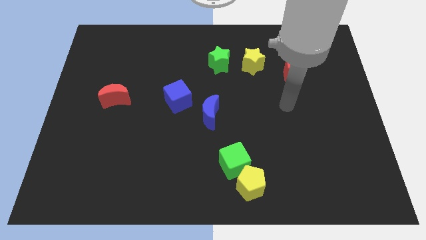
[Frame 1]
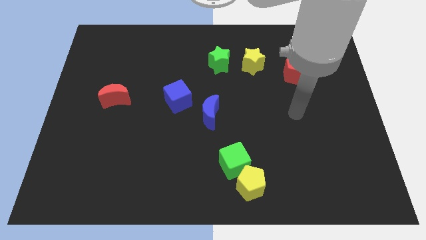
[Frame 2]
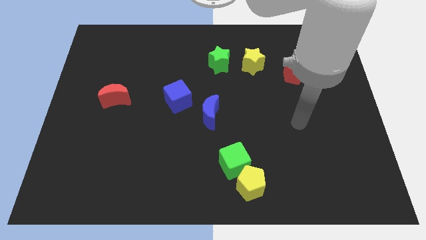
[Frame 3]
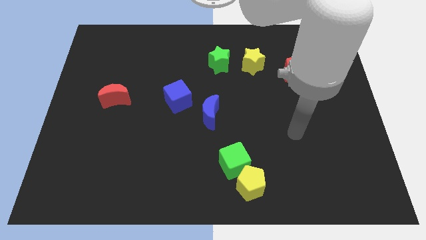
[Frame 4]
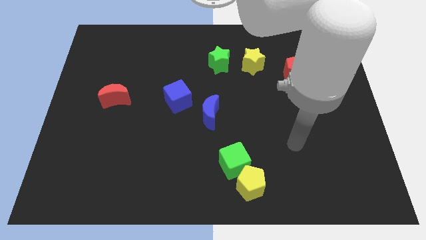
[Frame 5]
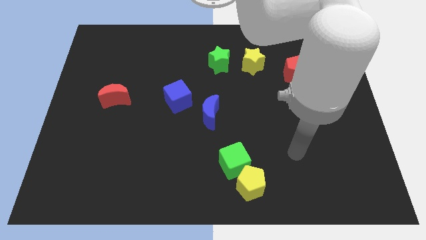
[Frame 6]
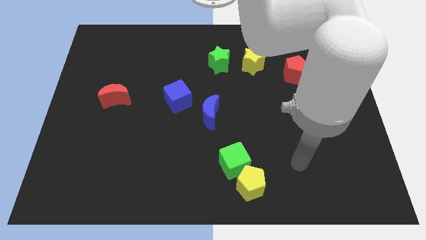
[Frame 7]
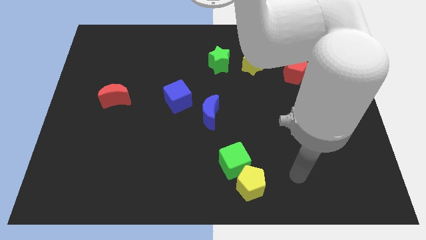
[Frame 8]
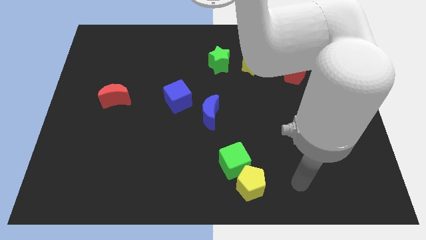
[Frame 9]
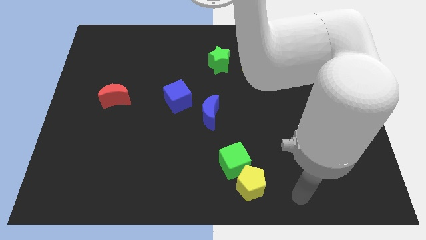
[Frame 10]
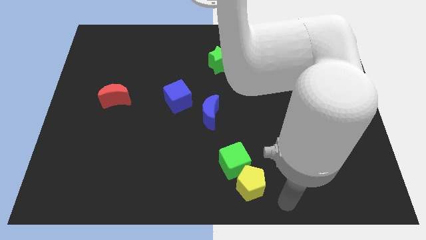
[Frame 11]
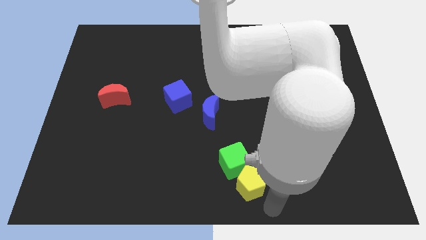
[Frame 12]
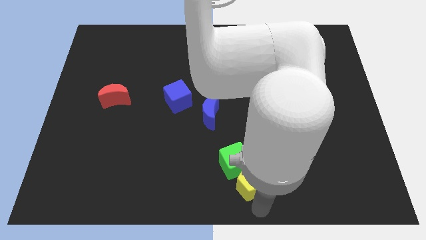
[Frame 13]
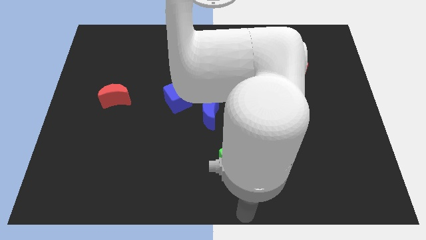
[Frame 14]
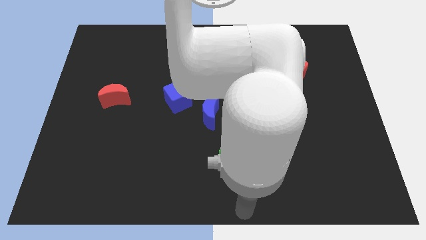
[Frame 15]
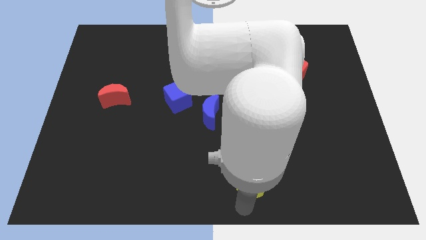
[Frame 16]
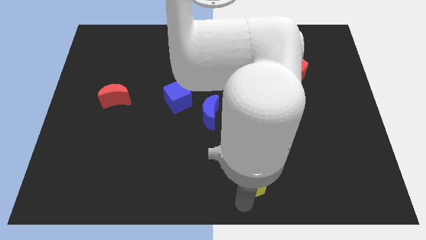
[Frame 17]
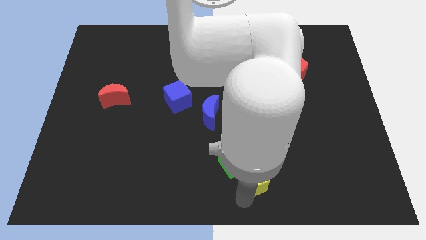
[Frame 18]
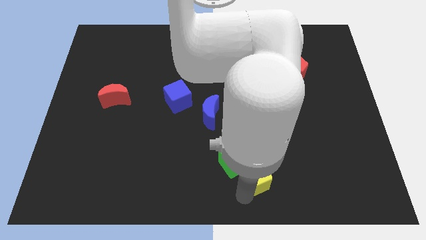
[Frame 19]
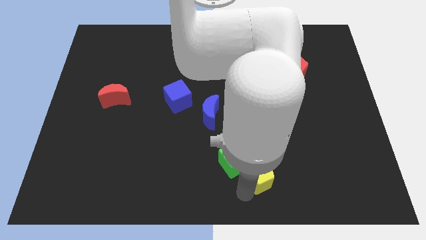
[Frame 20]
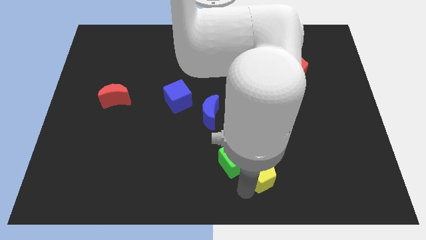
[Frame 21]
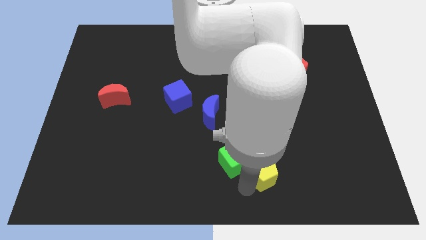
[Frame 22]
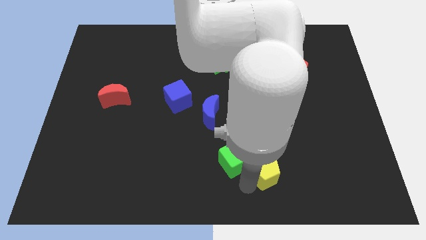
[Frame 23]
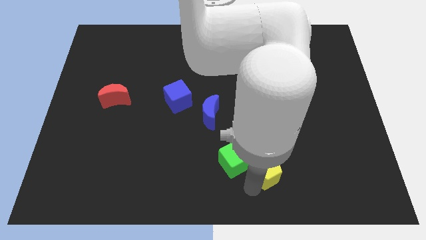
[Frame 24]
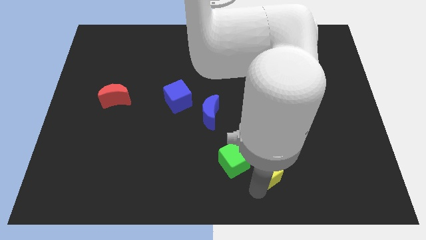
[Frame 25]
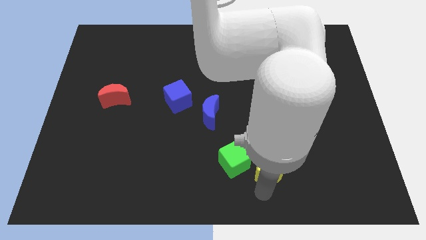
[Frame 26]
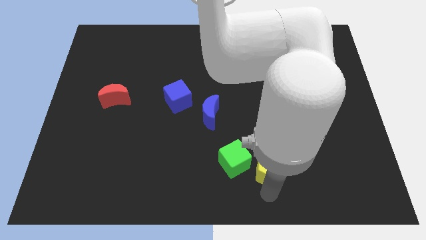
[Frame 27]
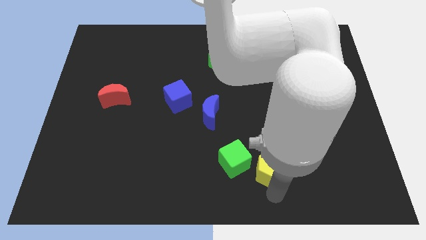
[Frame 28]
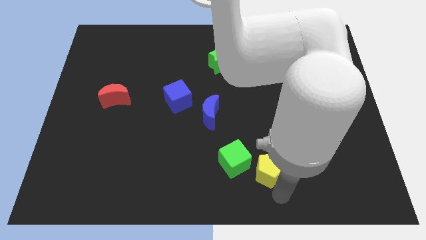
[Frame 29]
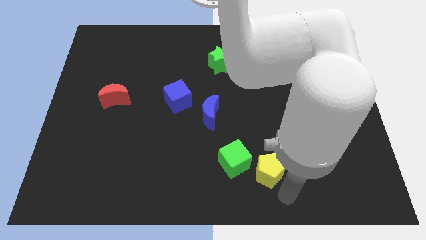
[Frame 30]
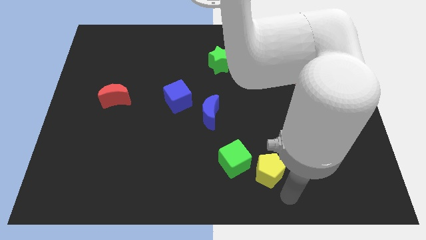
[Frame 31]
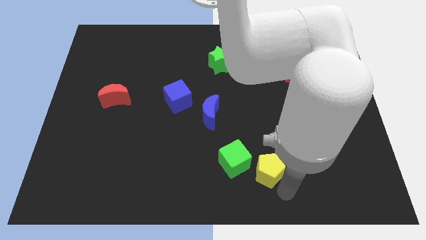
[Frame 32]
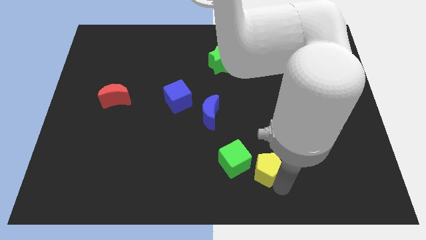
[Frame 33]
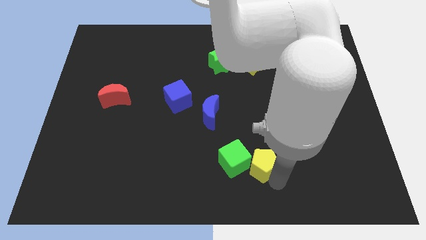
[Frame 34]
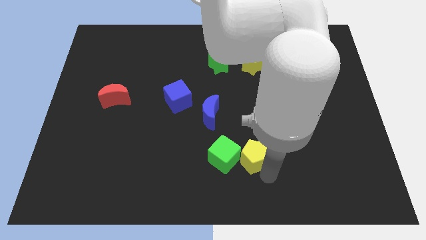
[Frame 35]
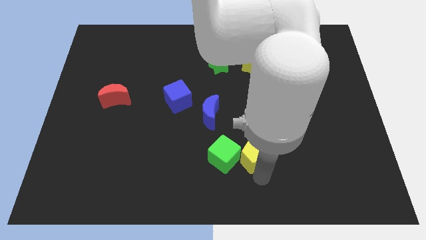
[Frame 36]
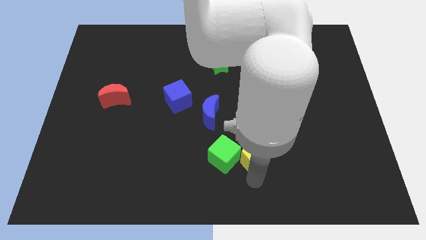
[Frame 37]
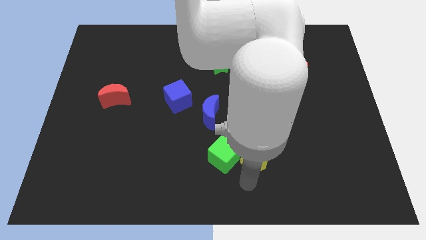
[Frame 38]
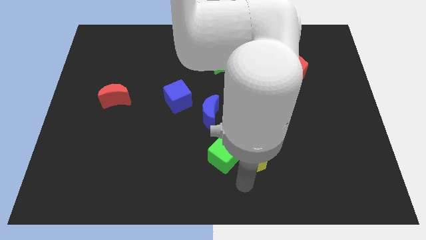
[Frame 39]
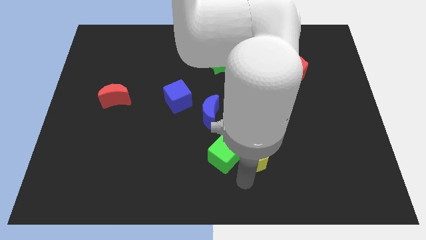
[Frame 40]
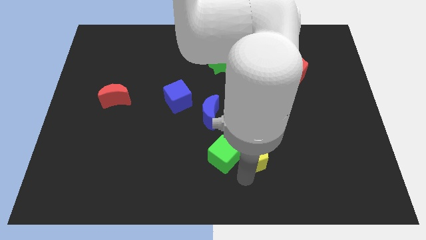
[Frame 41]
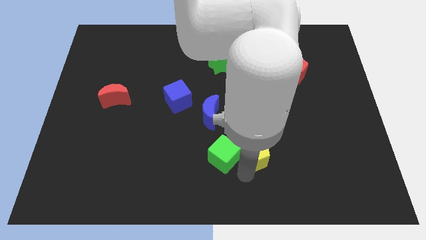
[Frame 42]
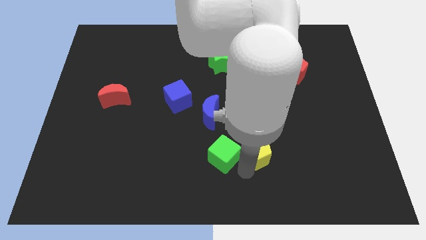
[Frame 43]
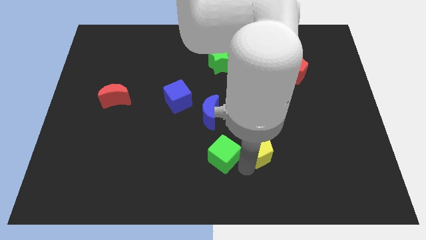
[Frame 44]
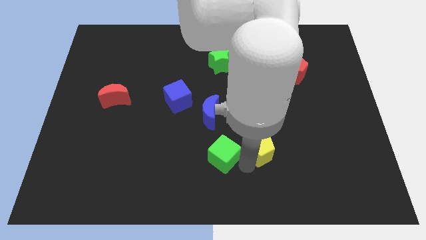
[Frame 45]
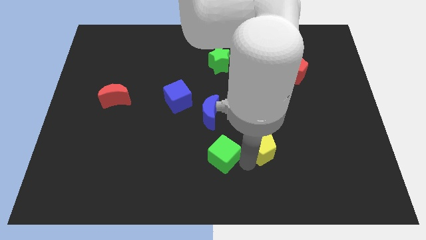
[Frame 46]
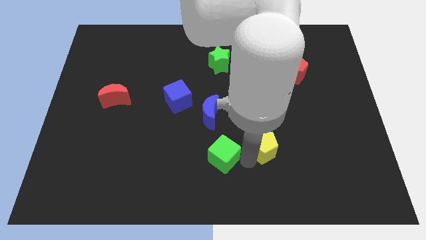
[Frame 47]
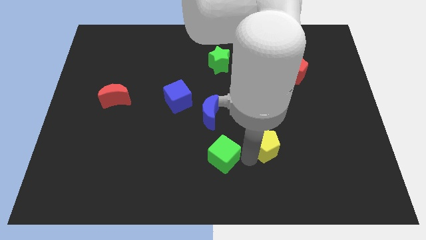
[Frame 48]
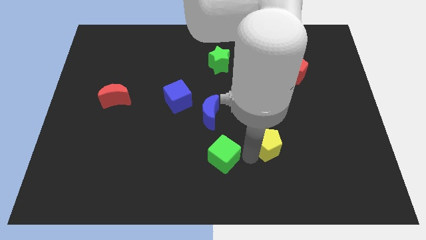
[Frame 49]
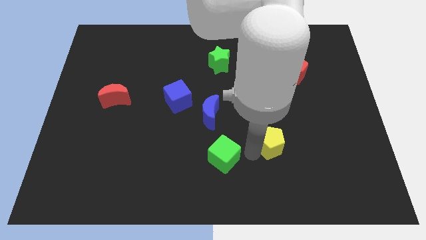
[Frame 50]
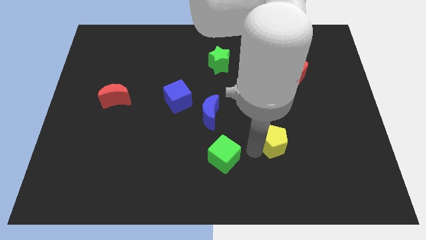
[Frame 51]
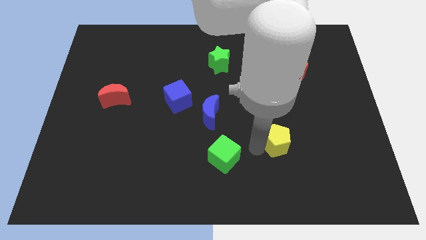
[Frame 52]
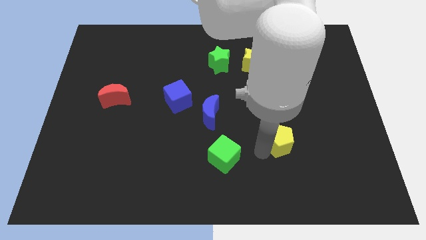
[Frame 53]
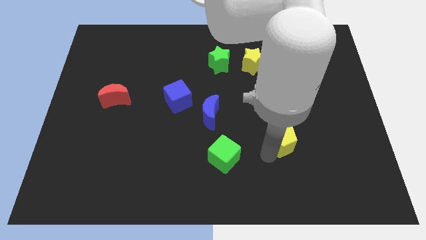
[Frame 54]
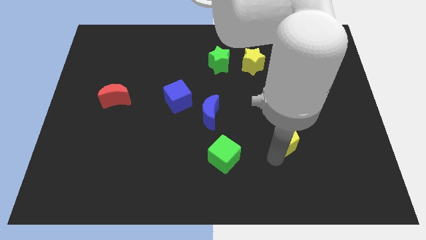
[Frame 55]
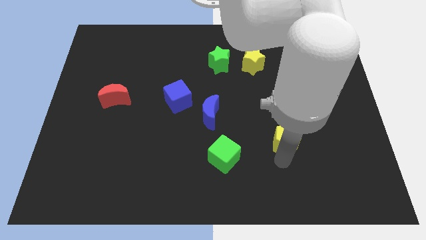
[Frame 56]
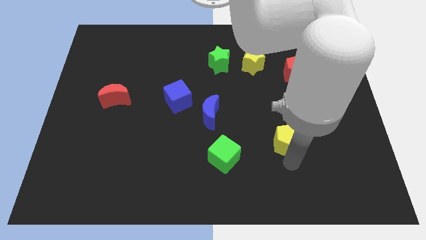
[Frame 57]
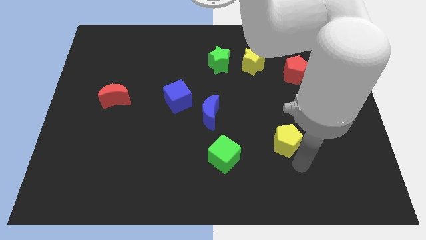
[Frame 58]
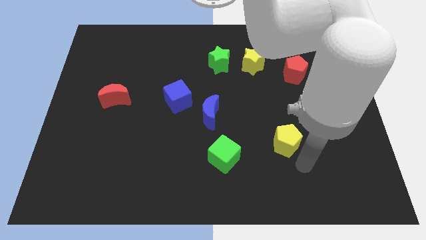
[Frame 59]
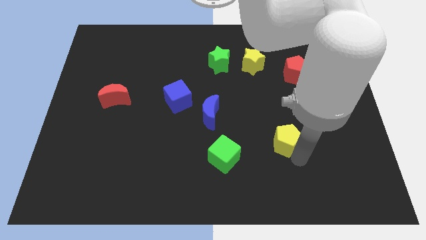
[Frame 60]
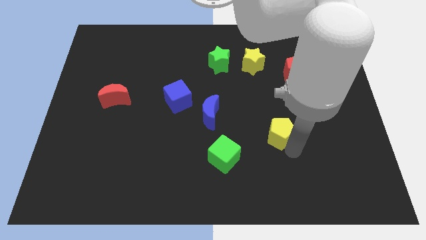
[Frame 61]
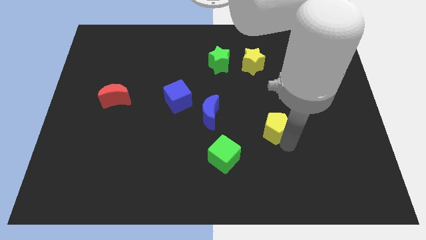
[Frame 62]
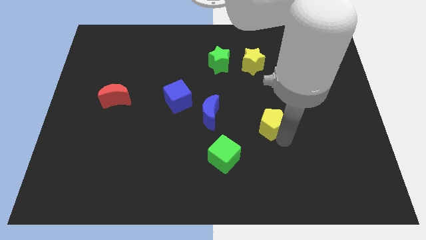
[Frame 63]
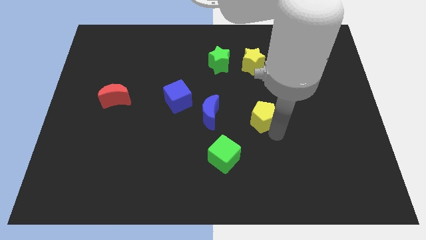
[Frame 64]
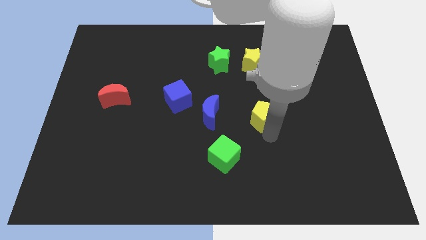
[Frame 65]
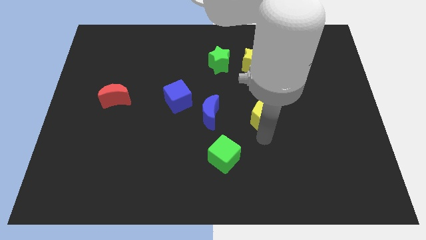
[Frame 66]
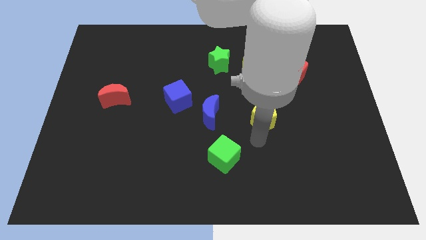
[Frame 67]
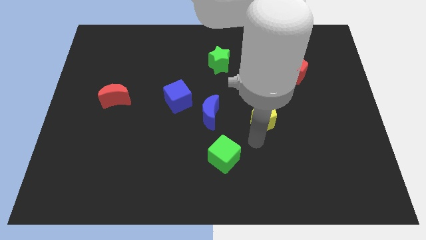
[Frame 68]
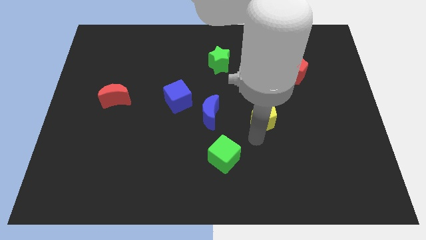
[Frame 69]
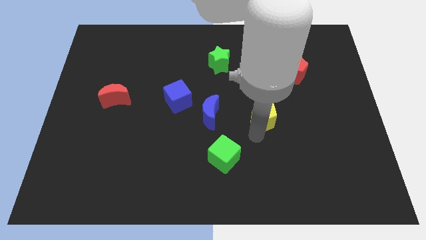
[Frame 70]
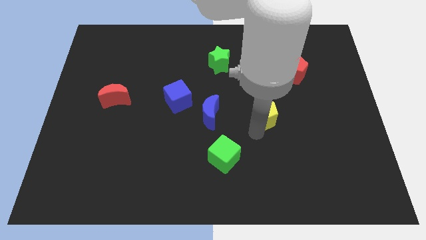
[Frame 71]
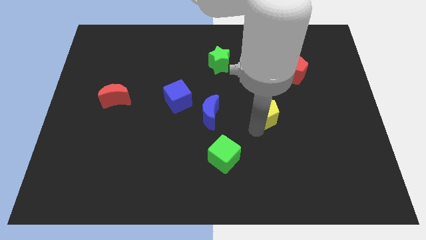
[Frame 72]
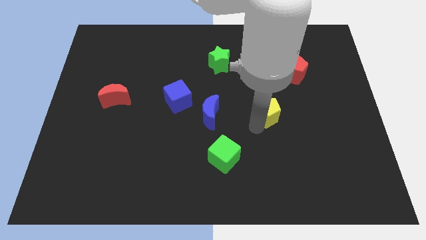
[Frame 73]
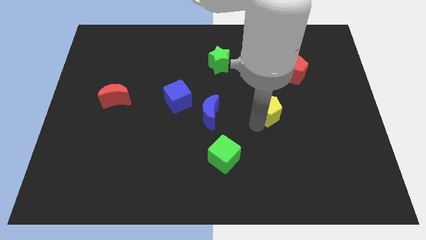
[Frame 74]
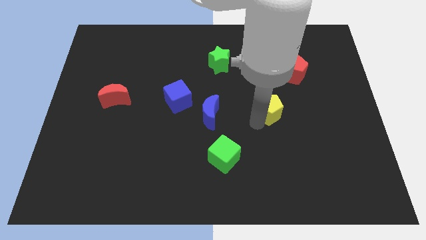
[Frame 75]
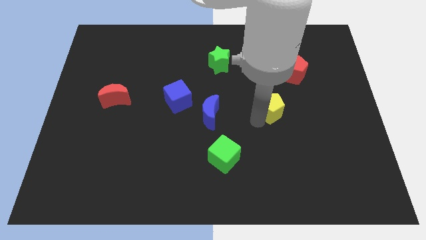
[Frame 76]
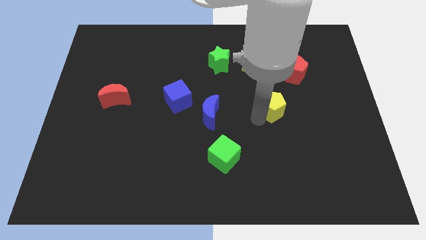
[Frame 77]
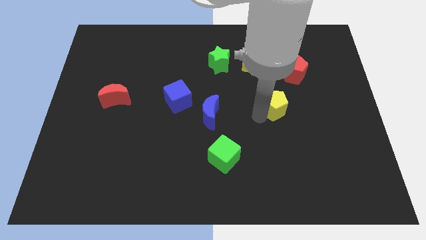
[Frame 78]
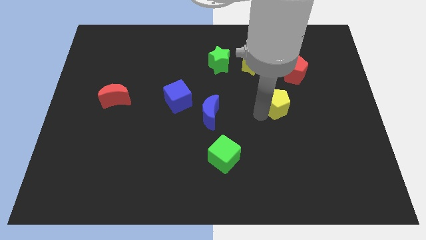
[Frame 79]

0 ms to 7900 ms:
slide the yellow pentagon diagonally down and to the left of the red pentagon
